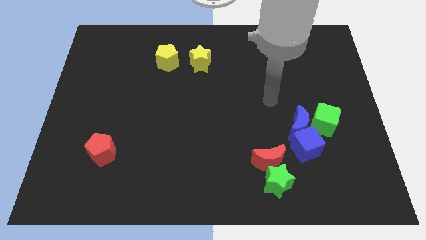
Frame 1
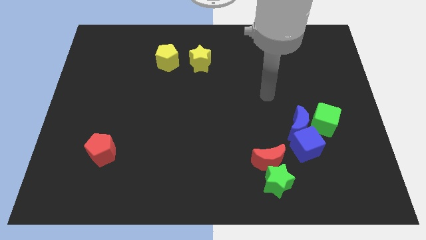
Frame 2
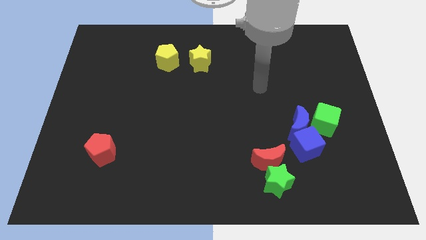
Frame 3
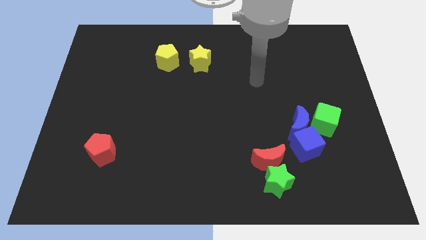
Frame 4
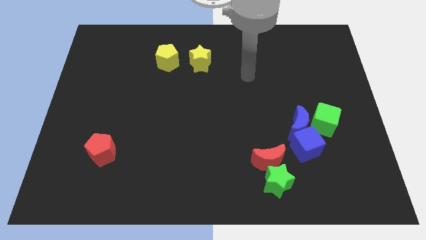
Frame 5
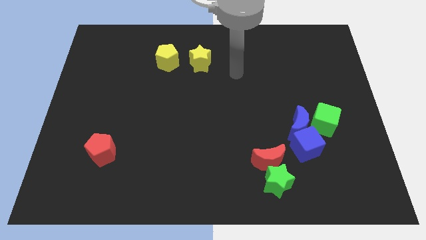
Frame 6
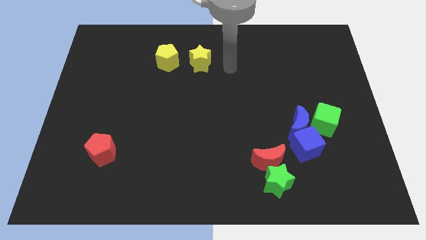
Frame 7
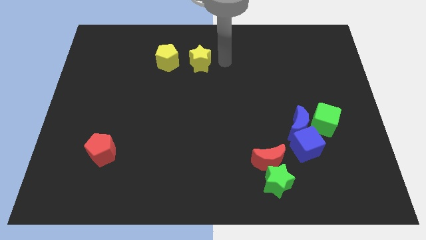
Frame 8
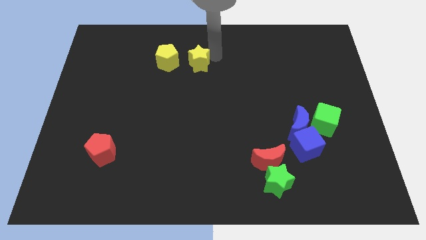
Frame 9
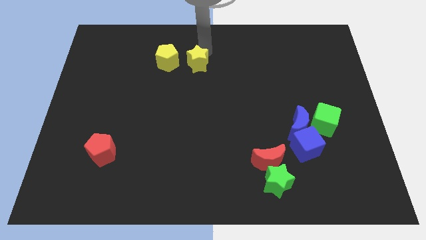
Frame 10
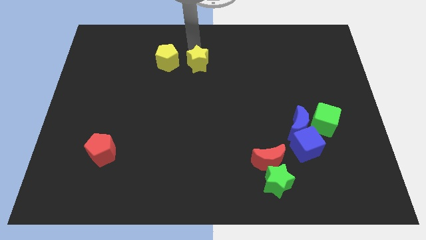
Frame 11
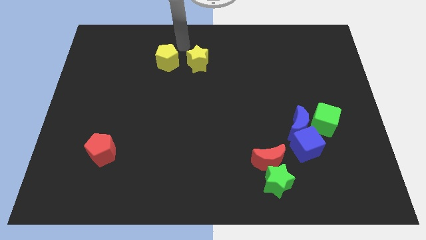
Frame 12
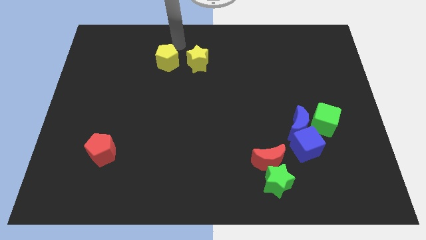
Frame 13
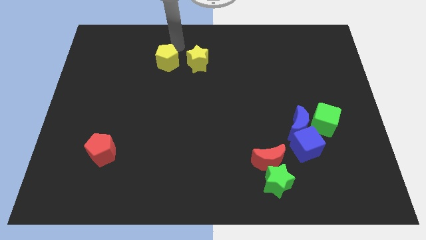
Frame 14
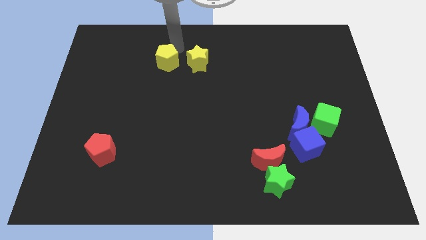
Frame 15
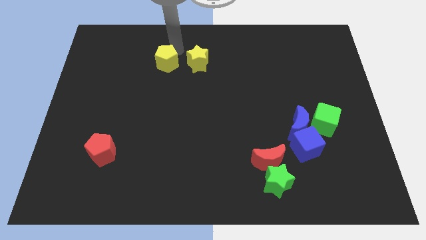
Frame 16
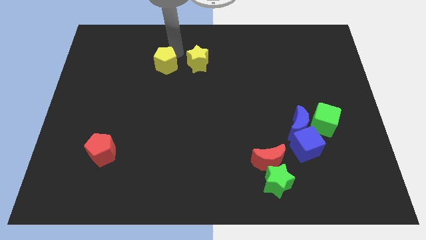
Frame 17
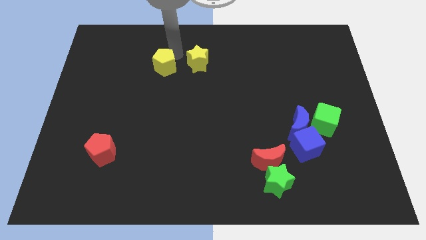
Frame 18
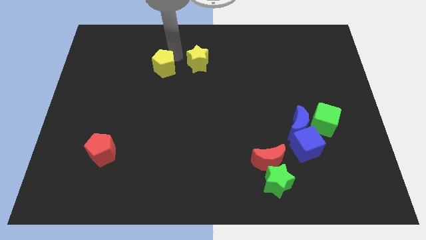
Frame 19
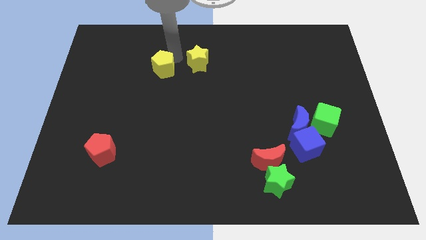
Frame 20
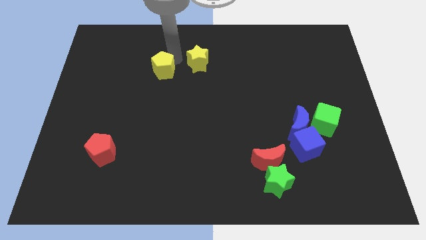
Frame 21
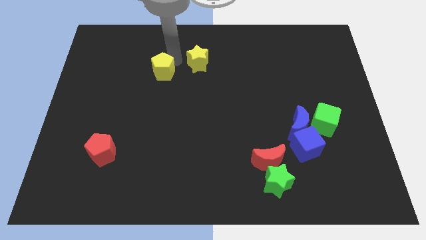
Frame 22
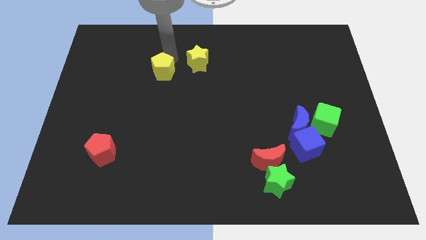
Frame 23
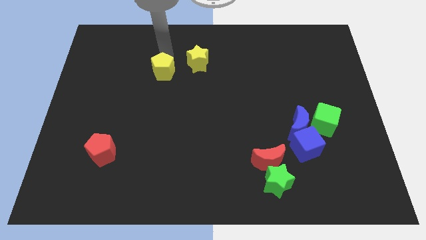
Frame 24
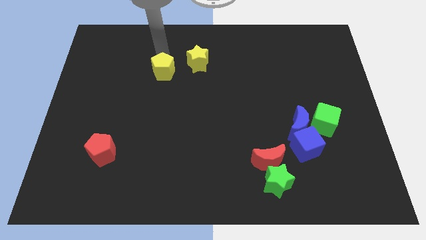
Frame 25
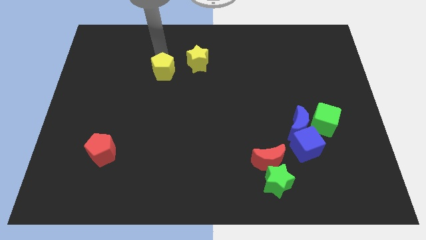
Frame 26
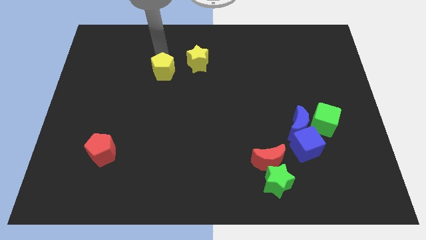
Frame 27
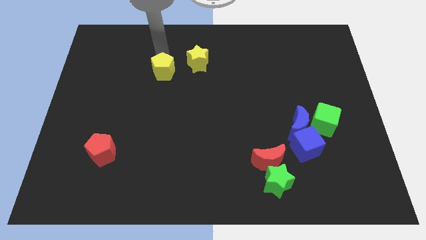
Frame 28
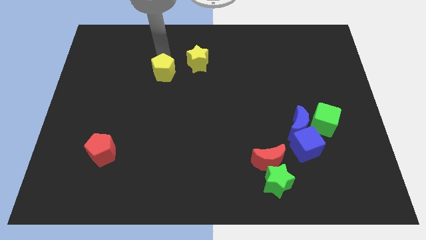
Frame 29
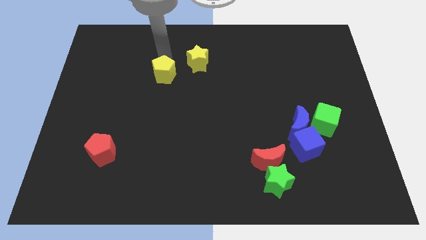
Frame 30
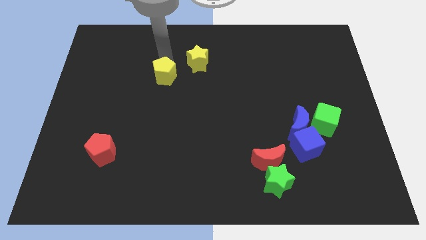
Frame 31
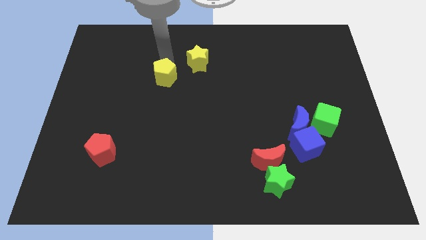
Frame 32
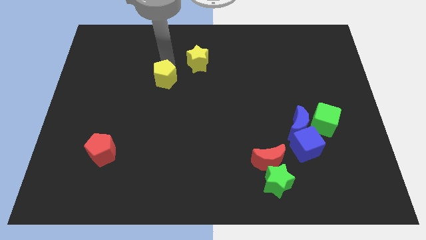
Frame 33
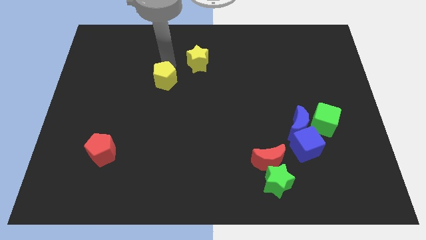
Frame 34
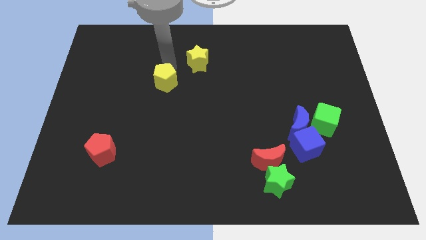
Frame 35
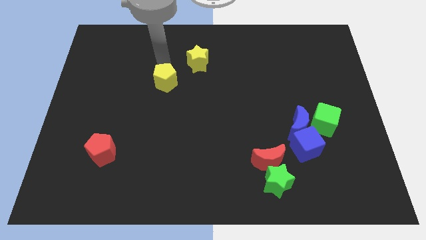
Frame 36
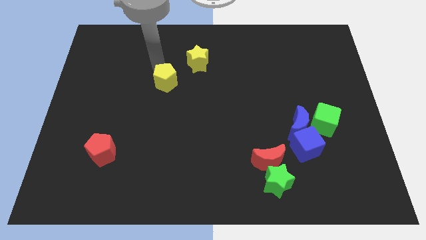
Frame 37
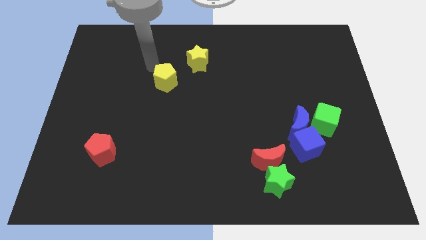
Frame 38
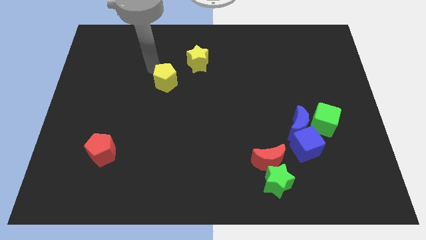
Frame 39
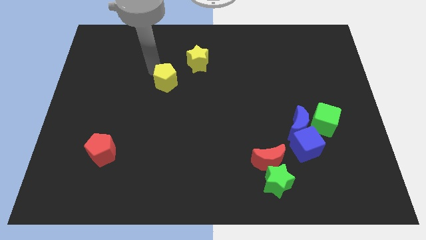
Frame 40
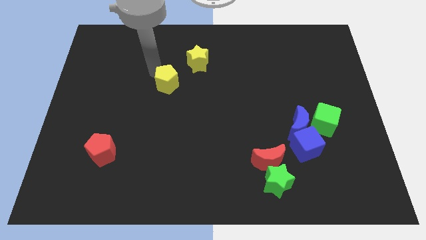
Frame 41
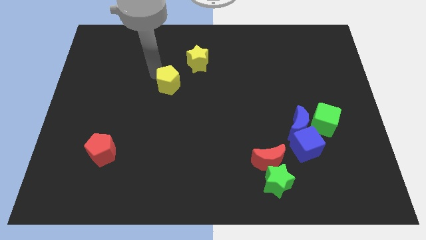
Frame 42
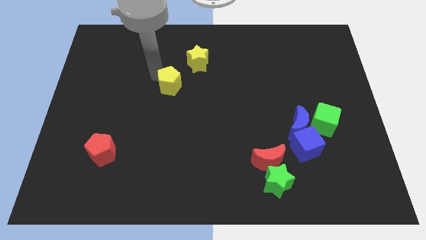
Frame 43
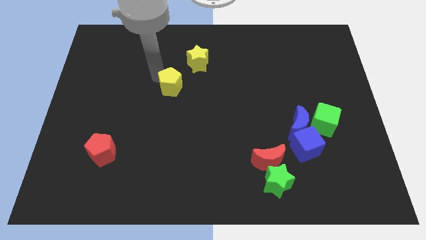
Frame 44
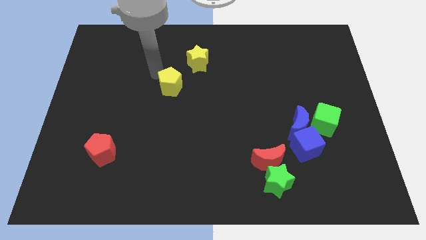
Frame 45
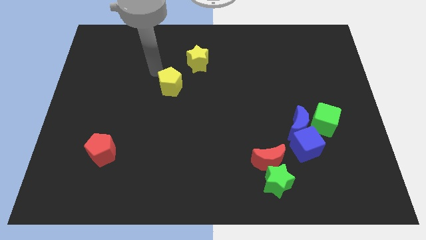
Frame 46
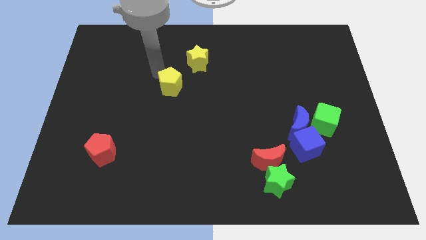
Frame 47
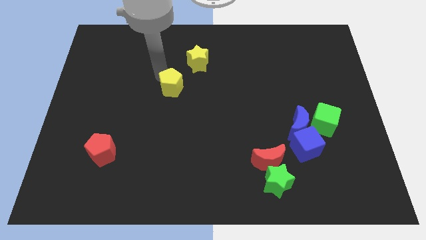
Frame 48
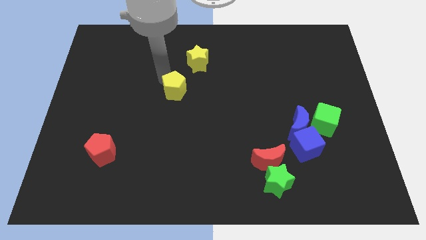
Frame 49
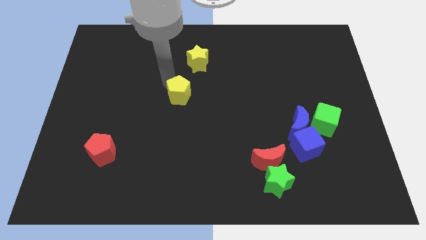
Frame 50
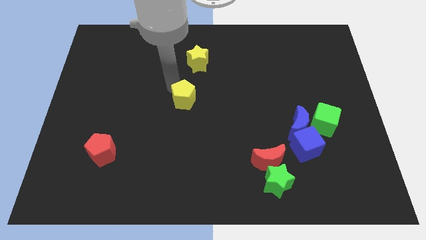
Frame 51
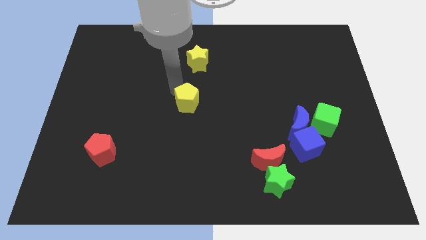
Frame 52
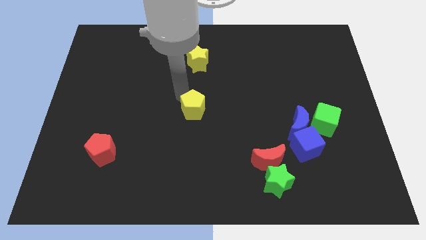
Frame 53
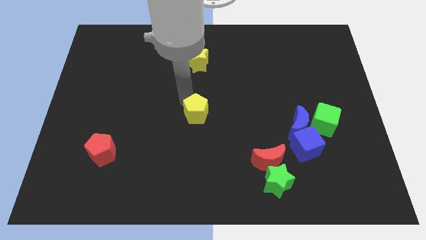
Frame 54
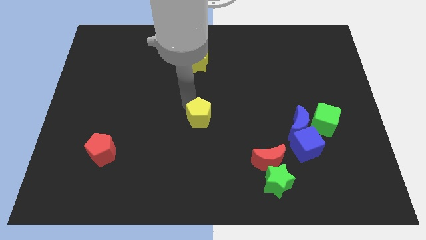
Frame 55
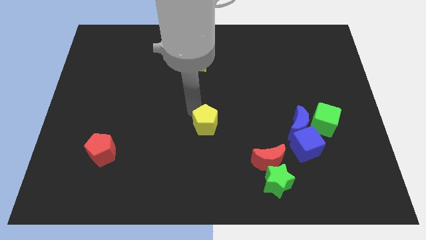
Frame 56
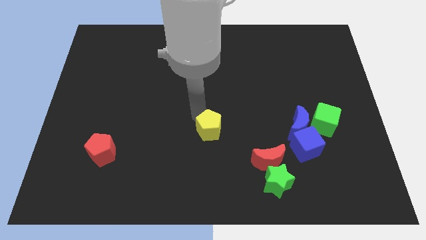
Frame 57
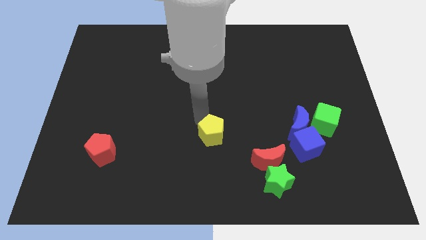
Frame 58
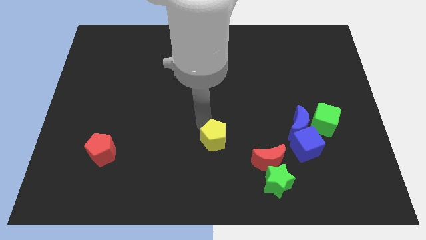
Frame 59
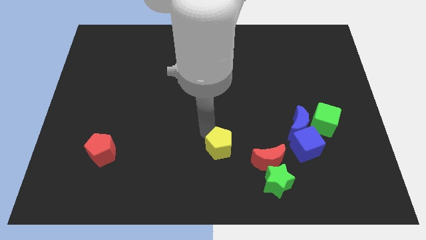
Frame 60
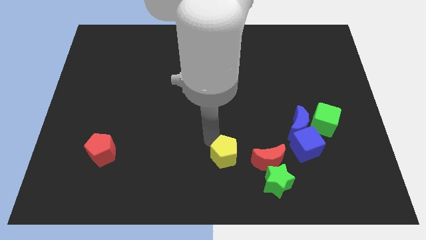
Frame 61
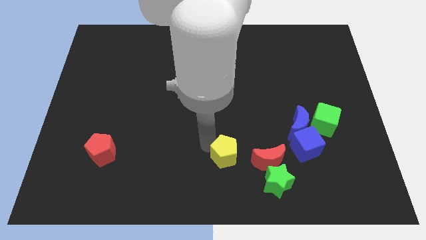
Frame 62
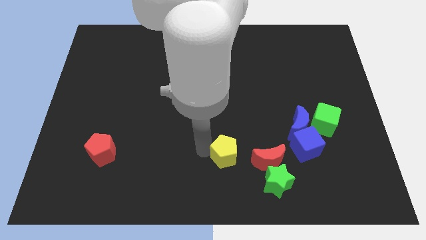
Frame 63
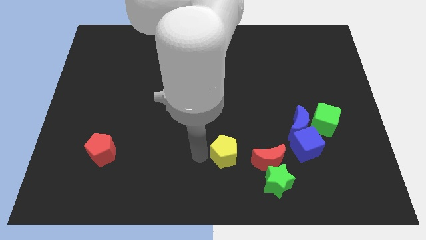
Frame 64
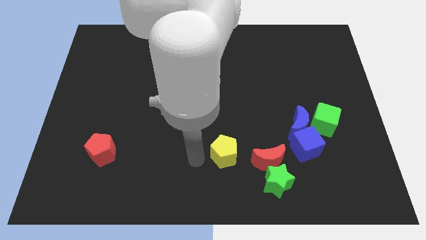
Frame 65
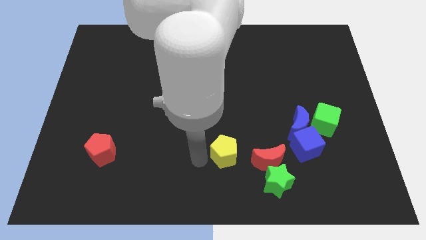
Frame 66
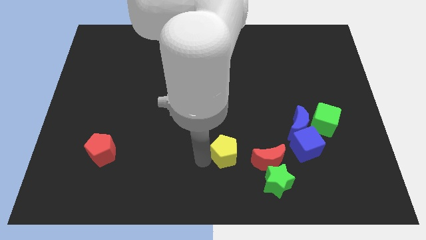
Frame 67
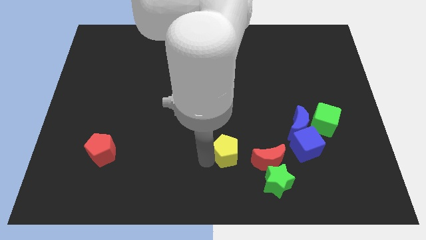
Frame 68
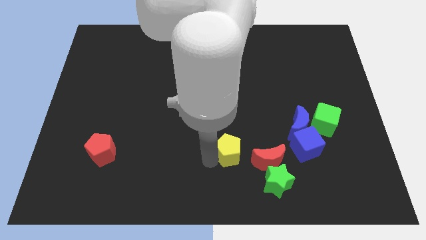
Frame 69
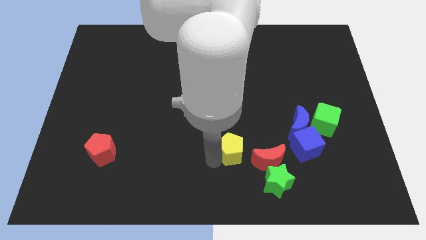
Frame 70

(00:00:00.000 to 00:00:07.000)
move the yellow pentagon to the left of the blue cube
